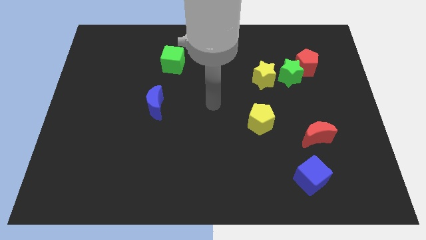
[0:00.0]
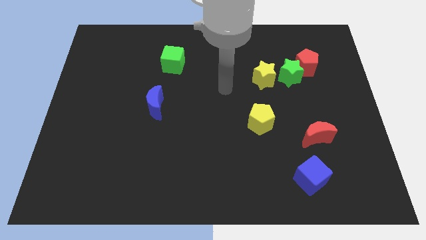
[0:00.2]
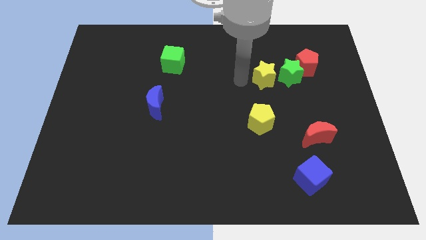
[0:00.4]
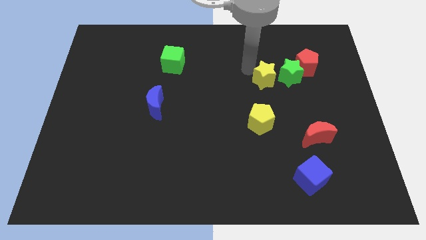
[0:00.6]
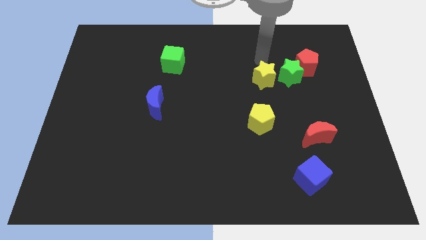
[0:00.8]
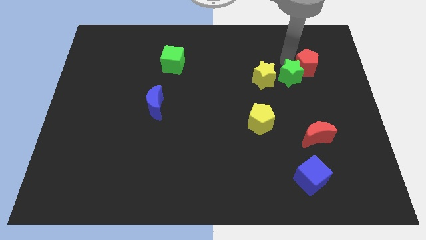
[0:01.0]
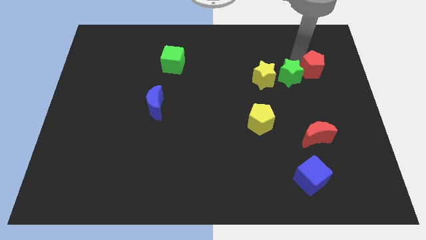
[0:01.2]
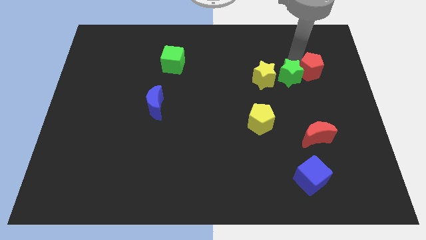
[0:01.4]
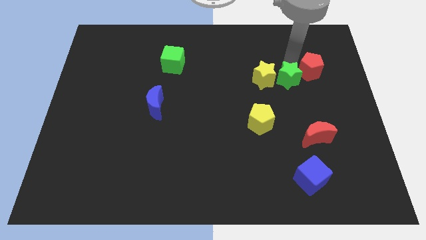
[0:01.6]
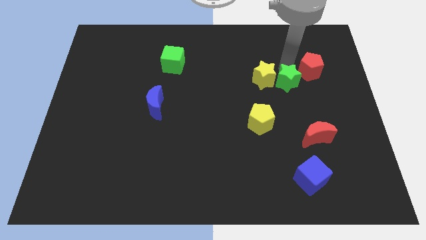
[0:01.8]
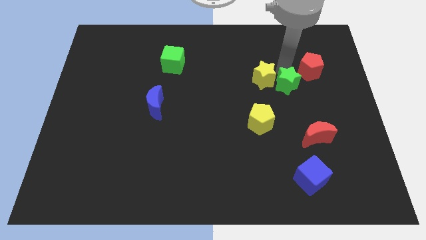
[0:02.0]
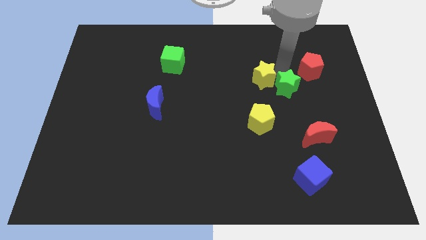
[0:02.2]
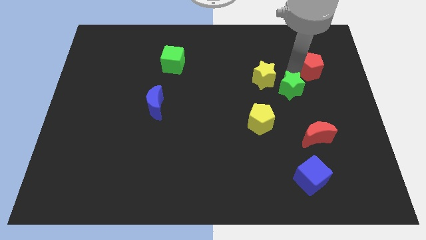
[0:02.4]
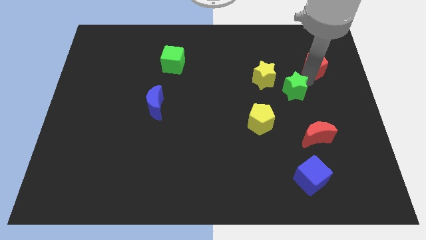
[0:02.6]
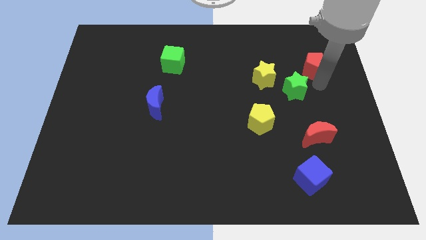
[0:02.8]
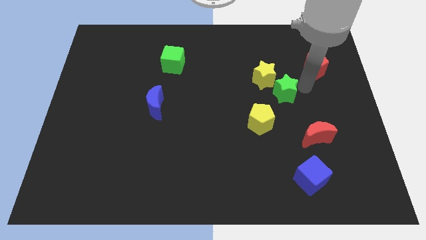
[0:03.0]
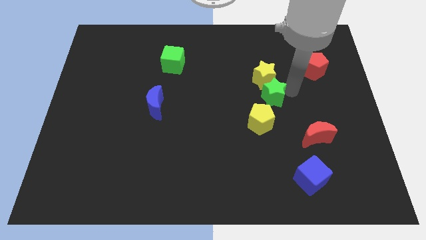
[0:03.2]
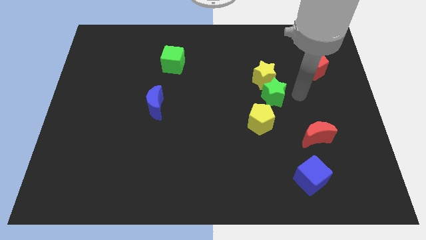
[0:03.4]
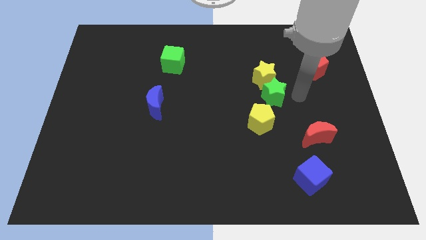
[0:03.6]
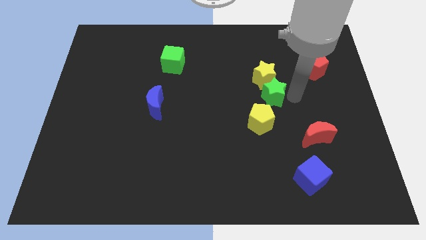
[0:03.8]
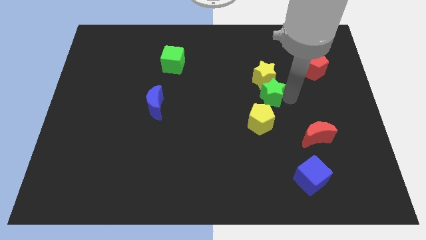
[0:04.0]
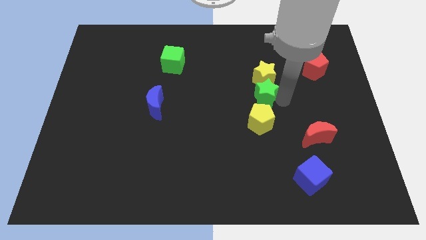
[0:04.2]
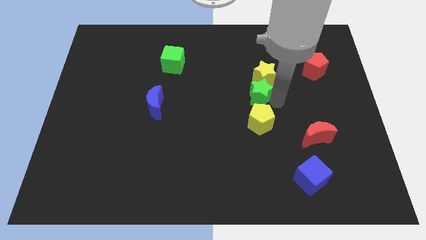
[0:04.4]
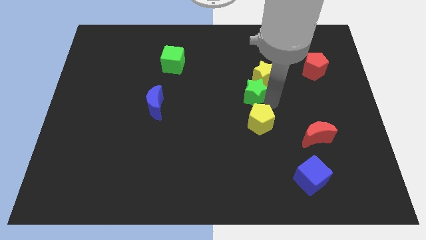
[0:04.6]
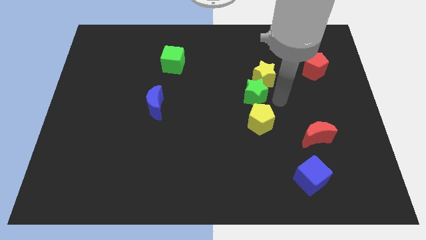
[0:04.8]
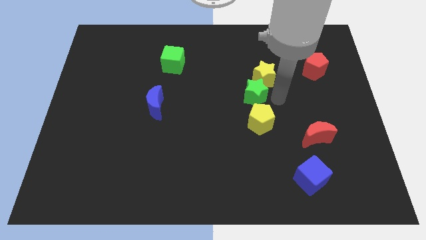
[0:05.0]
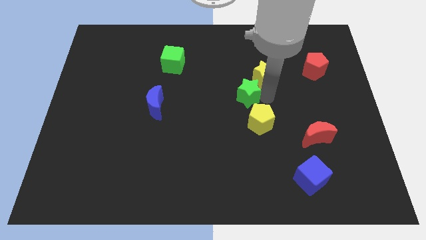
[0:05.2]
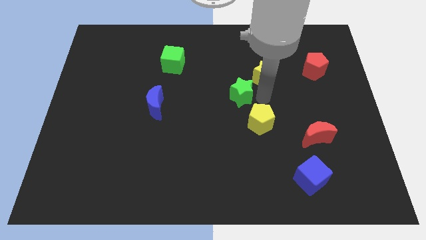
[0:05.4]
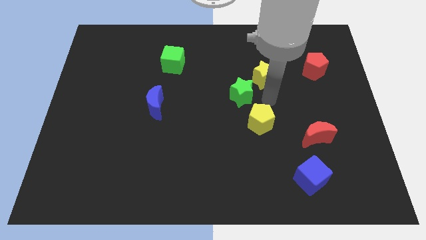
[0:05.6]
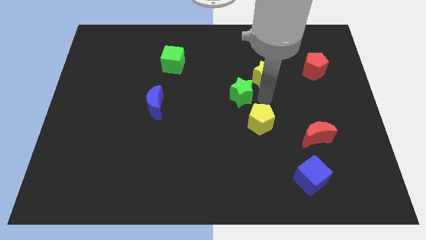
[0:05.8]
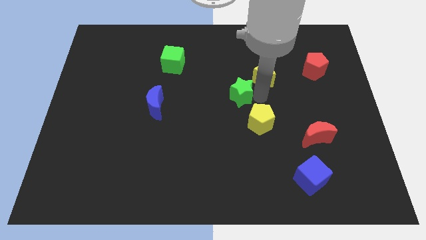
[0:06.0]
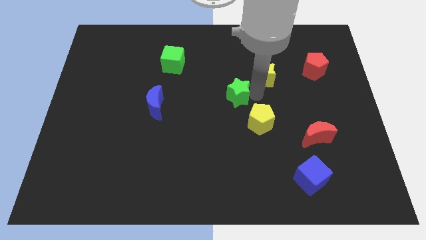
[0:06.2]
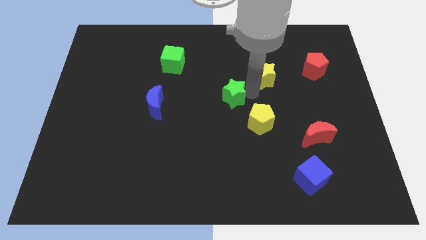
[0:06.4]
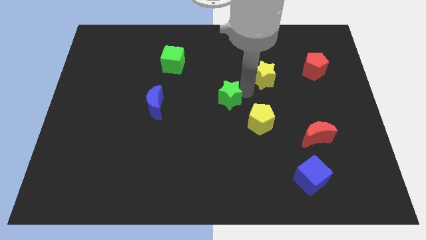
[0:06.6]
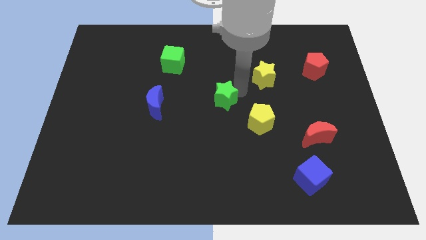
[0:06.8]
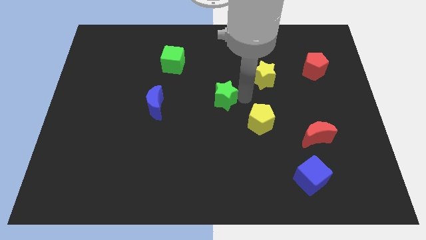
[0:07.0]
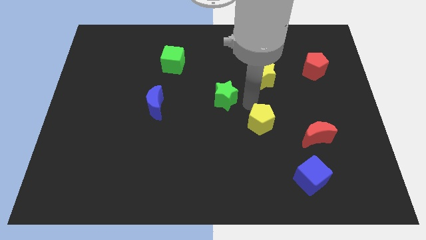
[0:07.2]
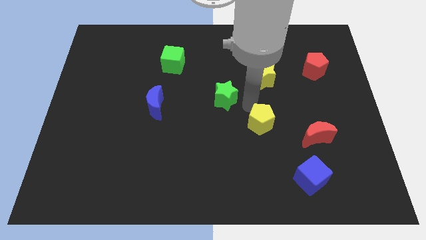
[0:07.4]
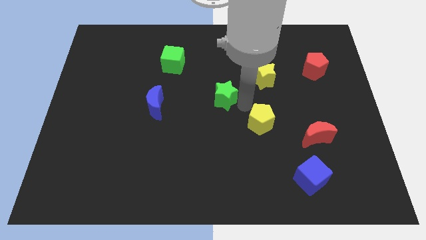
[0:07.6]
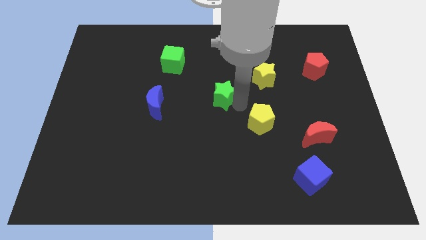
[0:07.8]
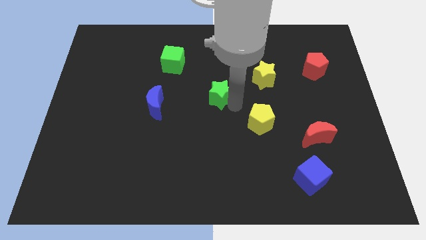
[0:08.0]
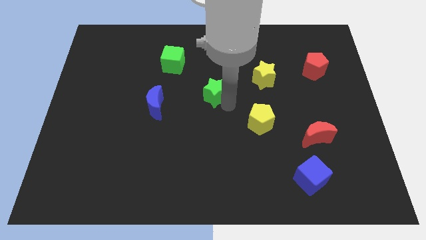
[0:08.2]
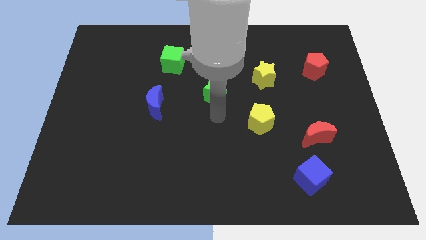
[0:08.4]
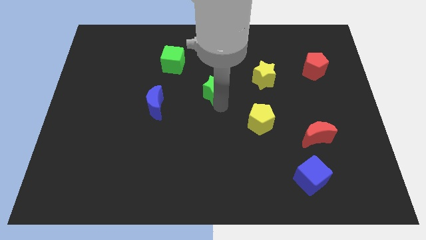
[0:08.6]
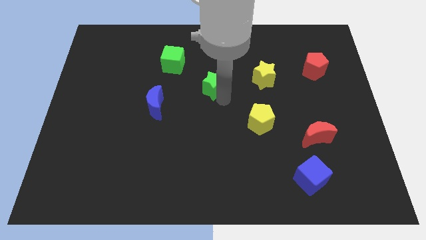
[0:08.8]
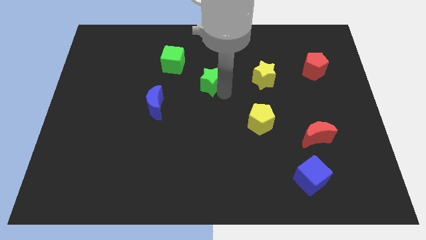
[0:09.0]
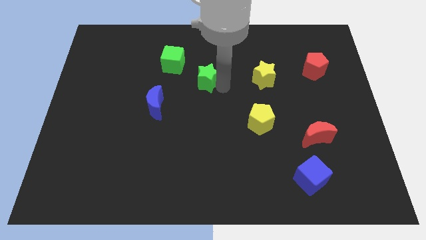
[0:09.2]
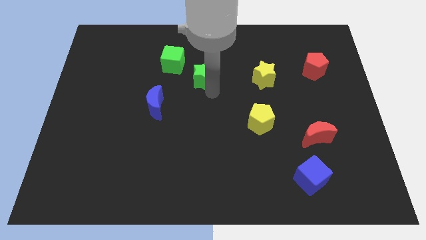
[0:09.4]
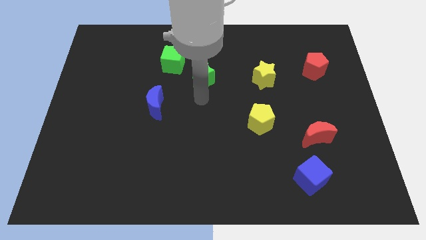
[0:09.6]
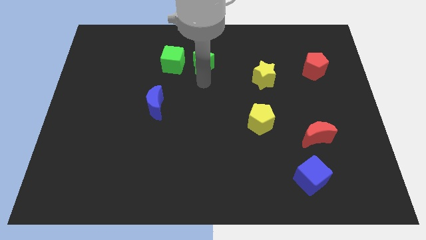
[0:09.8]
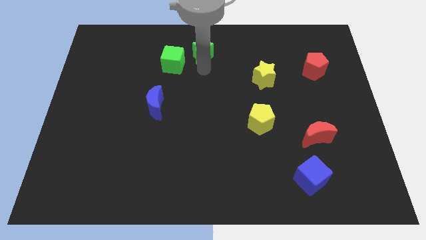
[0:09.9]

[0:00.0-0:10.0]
slide the green star to the towards your base
